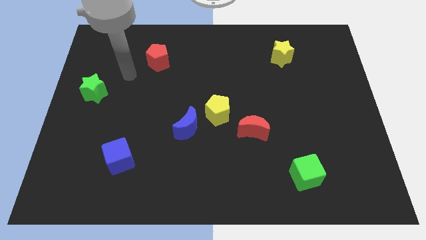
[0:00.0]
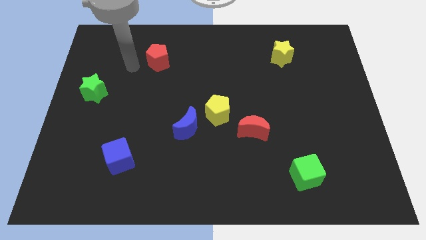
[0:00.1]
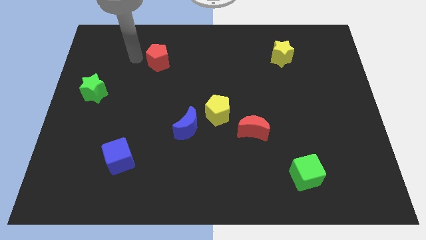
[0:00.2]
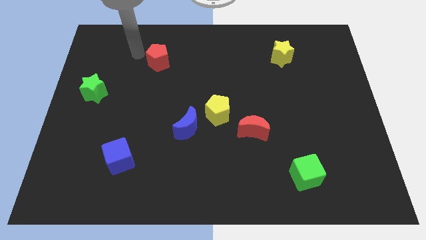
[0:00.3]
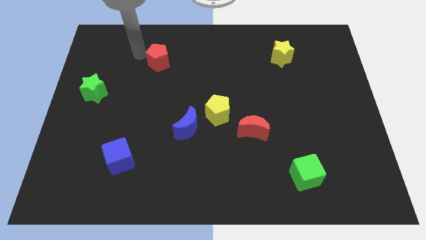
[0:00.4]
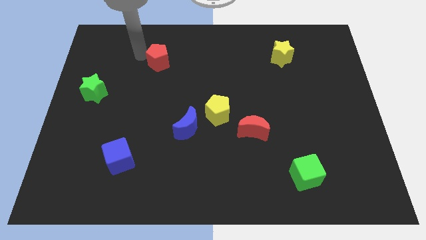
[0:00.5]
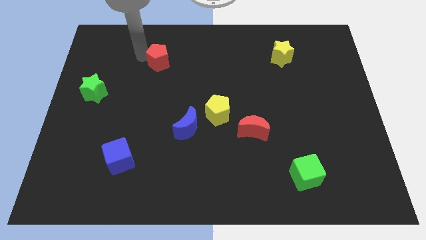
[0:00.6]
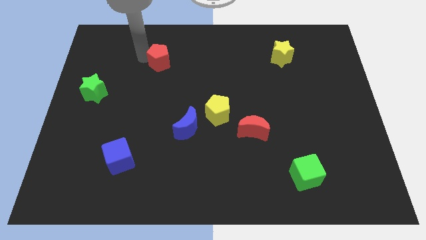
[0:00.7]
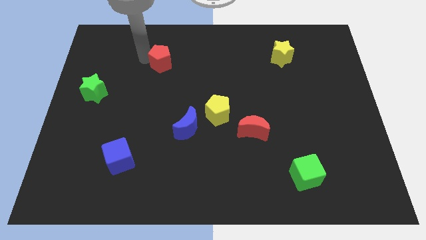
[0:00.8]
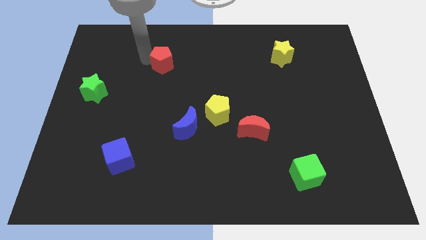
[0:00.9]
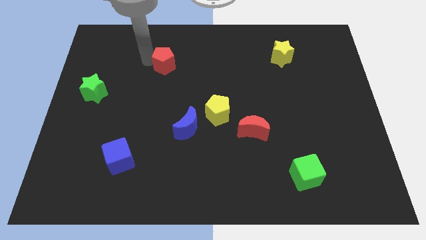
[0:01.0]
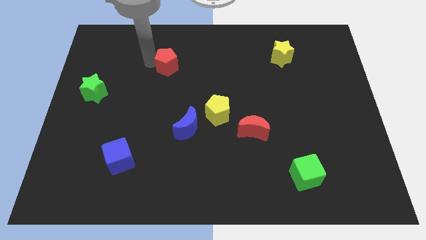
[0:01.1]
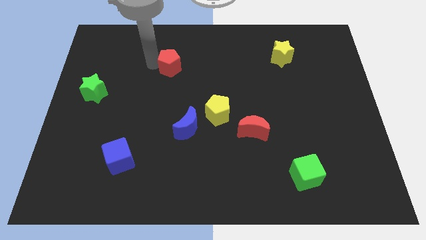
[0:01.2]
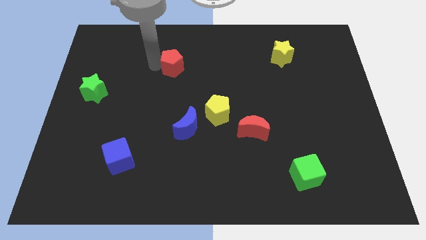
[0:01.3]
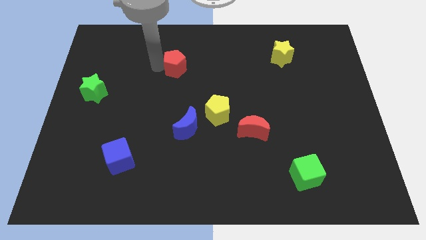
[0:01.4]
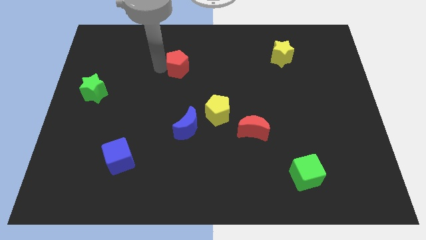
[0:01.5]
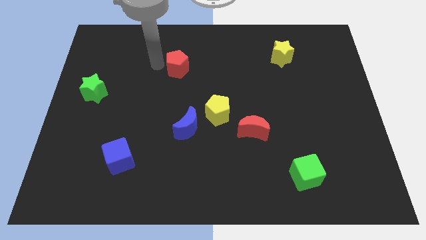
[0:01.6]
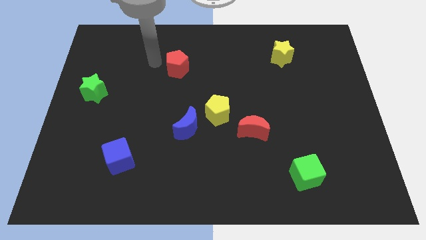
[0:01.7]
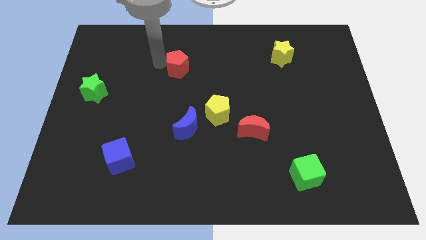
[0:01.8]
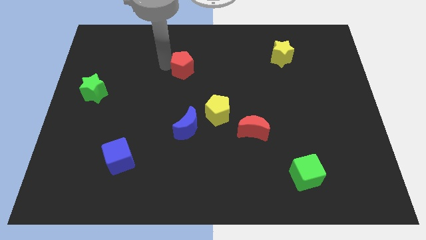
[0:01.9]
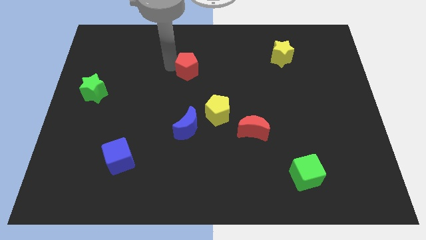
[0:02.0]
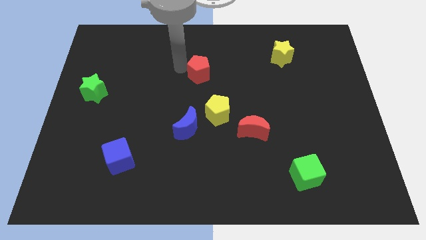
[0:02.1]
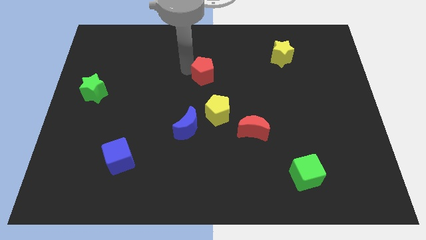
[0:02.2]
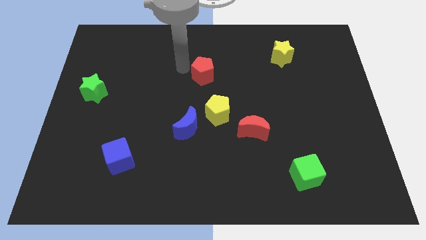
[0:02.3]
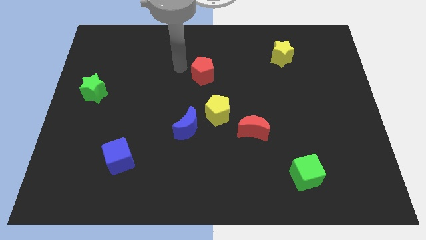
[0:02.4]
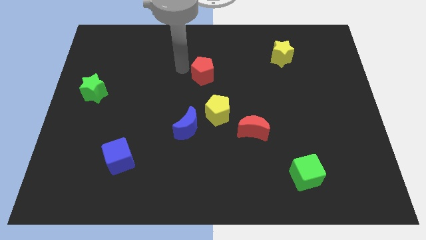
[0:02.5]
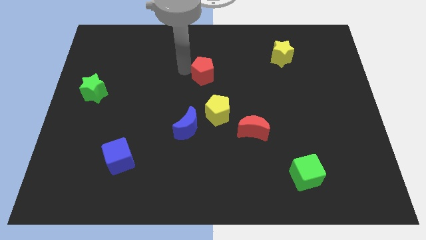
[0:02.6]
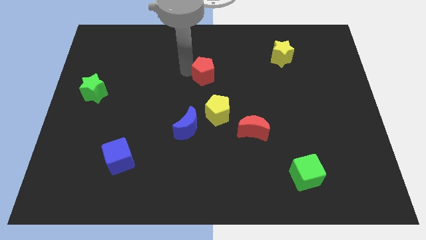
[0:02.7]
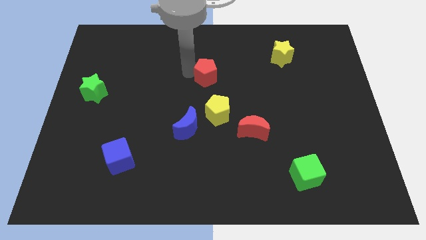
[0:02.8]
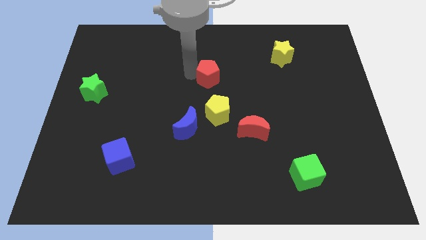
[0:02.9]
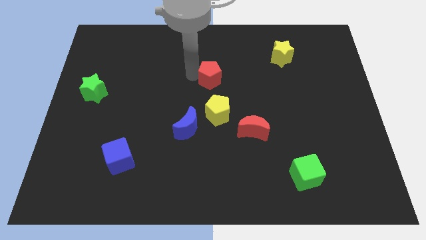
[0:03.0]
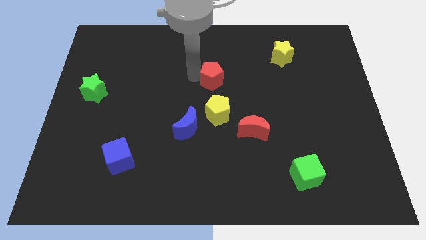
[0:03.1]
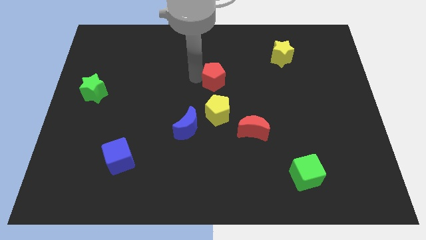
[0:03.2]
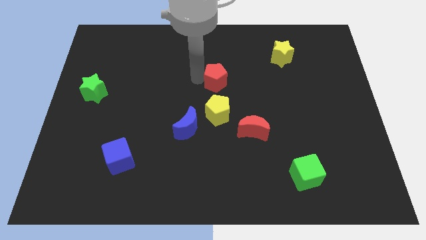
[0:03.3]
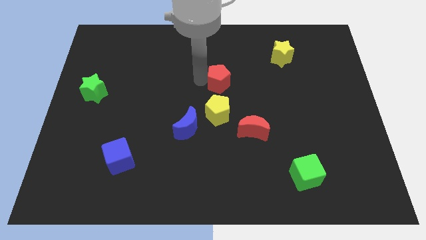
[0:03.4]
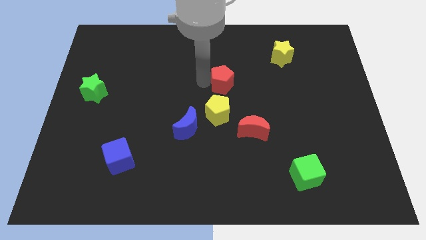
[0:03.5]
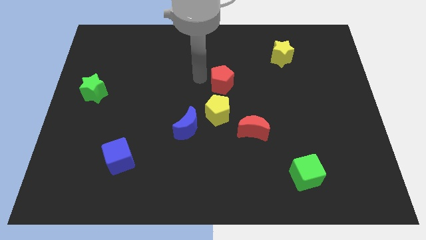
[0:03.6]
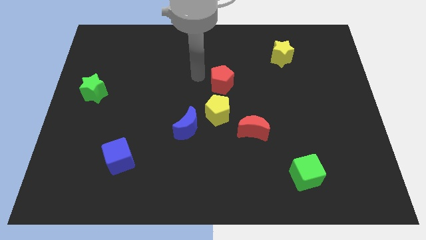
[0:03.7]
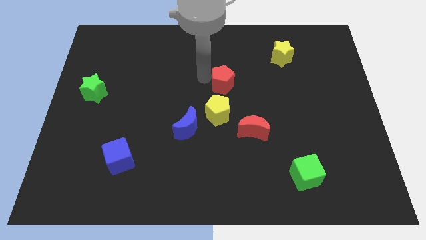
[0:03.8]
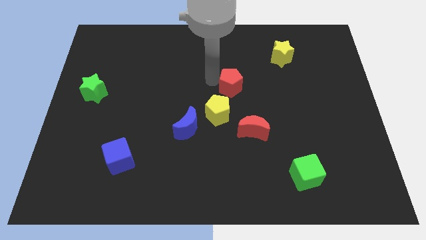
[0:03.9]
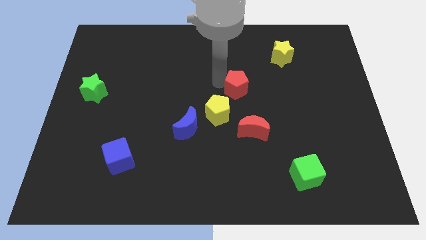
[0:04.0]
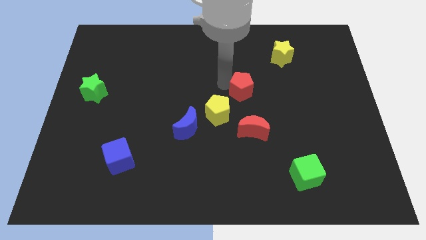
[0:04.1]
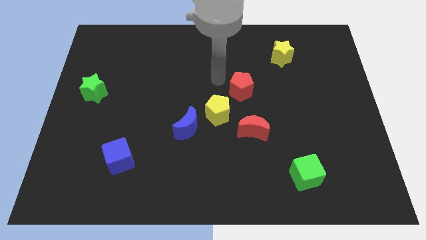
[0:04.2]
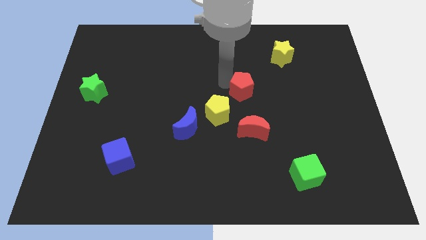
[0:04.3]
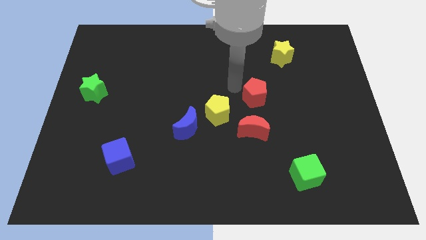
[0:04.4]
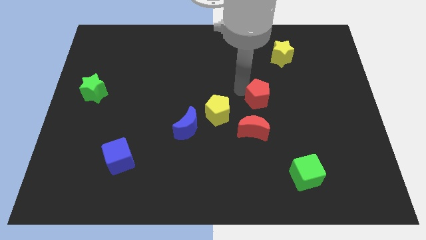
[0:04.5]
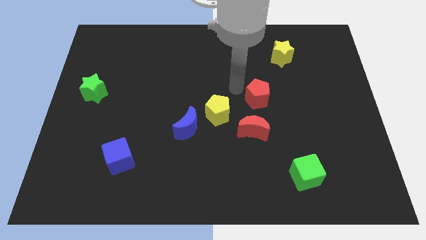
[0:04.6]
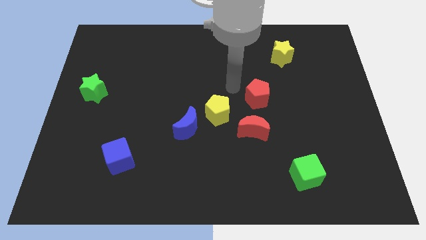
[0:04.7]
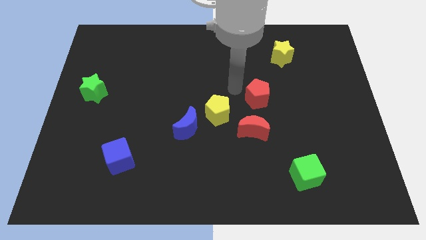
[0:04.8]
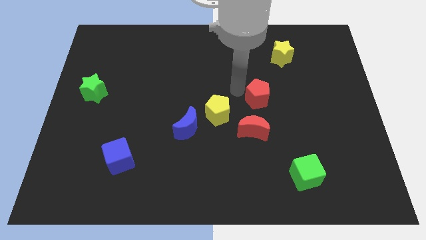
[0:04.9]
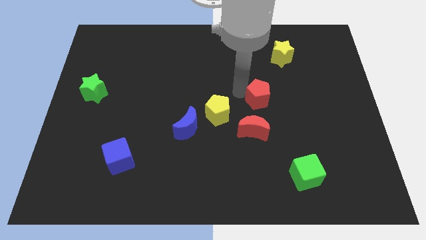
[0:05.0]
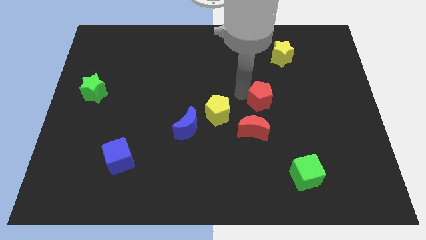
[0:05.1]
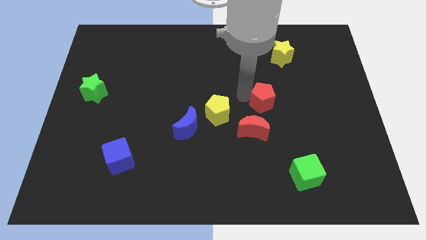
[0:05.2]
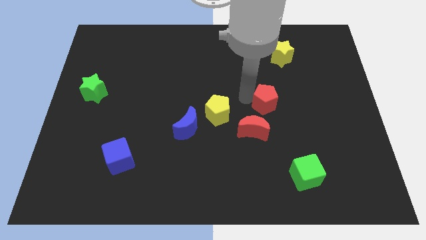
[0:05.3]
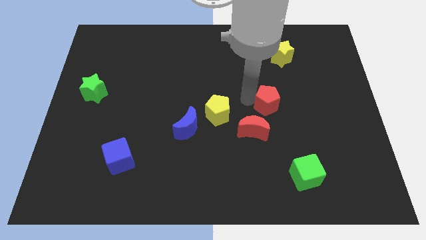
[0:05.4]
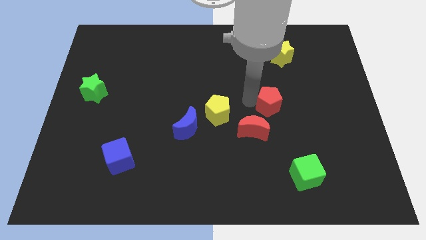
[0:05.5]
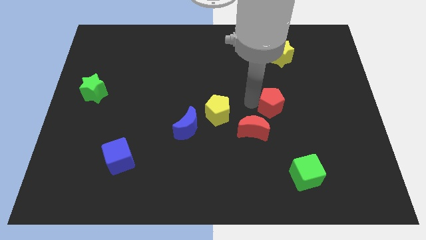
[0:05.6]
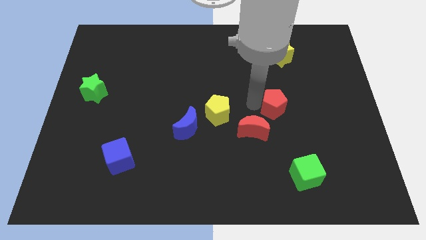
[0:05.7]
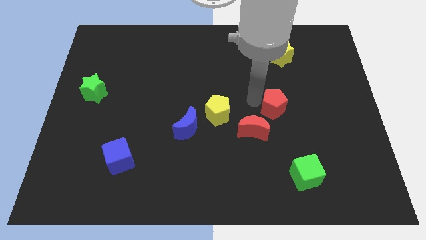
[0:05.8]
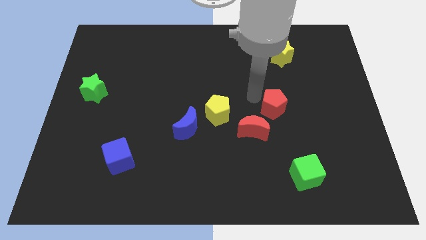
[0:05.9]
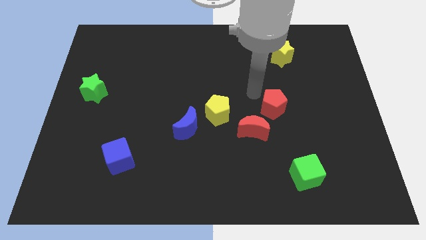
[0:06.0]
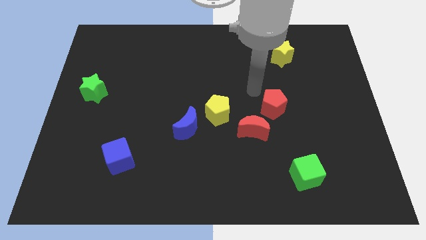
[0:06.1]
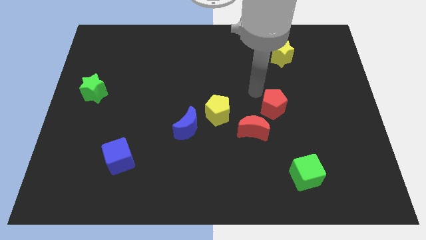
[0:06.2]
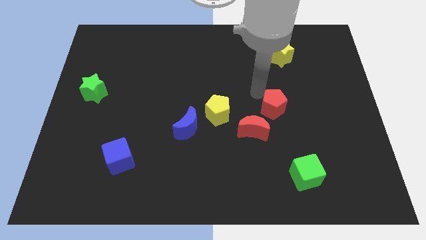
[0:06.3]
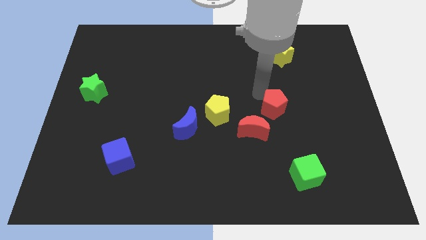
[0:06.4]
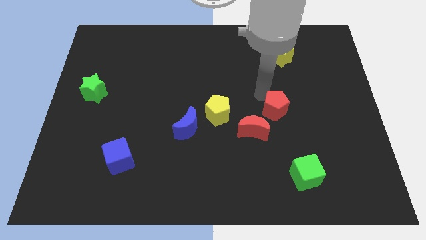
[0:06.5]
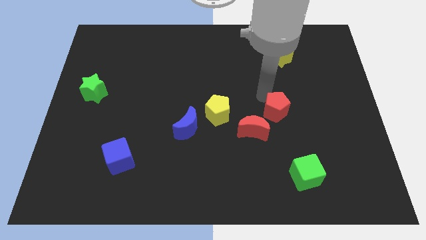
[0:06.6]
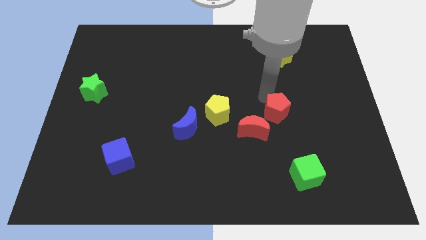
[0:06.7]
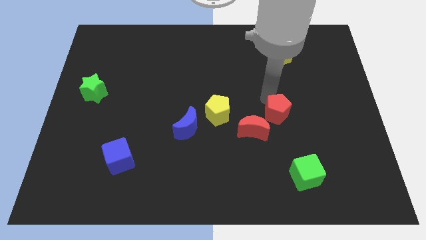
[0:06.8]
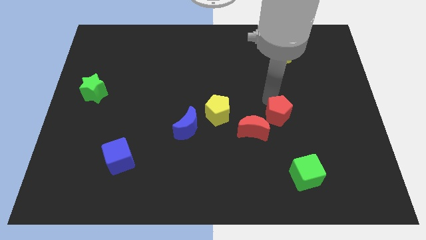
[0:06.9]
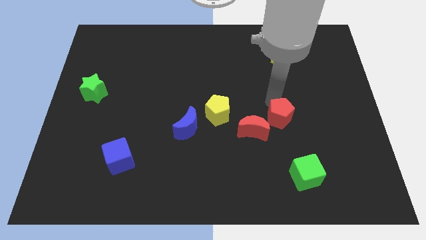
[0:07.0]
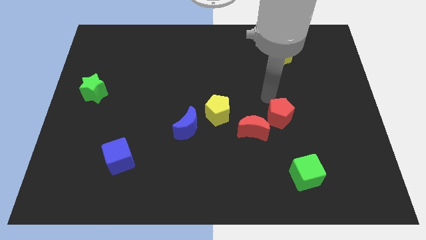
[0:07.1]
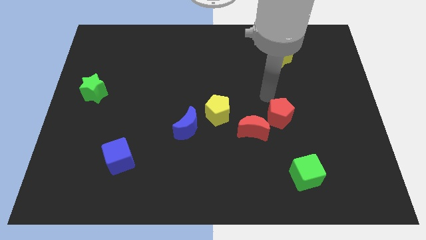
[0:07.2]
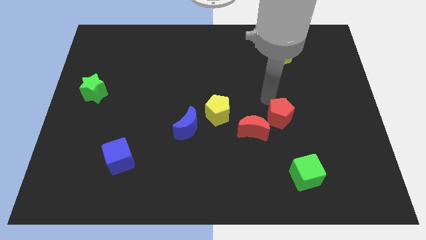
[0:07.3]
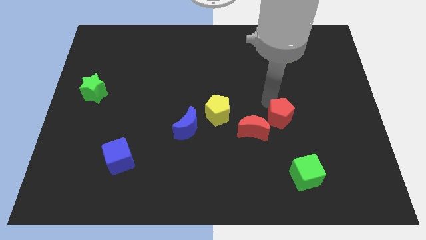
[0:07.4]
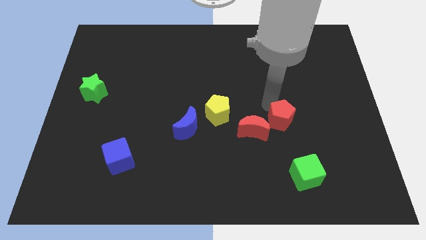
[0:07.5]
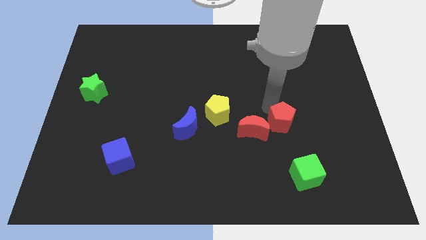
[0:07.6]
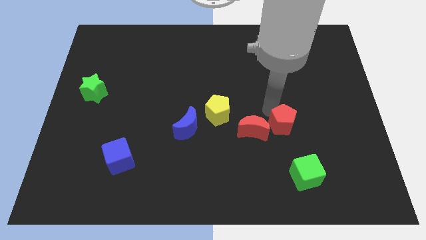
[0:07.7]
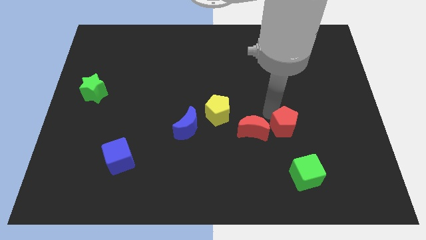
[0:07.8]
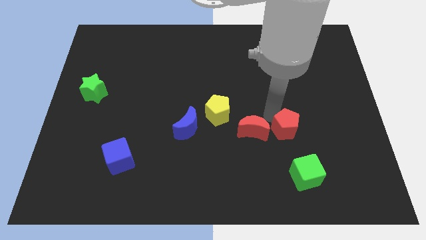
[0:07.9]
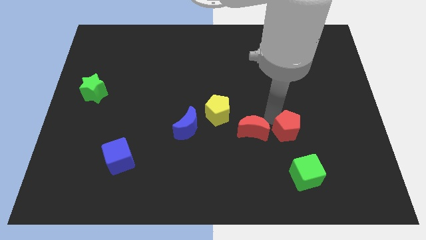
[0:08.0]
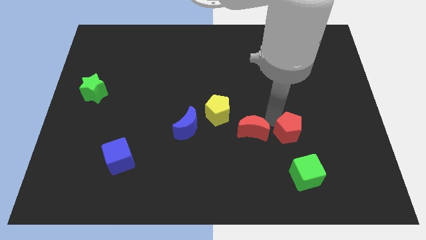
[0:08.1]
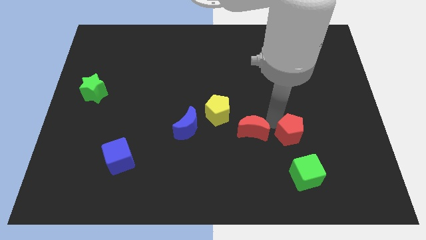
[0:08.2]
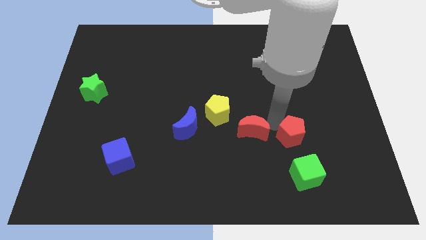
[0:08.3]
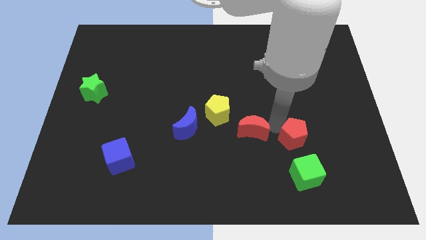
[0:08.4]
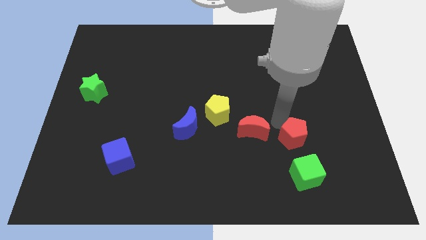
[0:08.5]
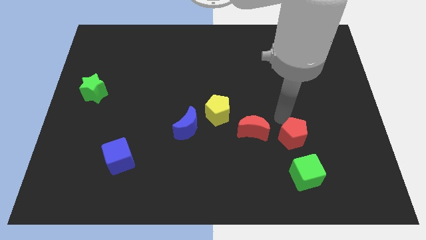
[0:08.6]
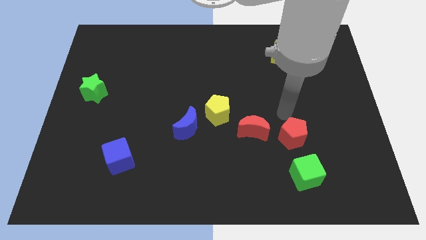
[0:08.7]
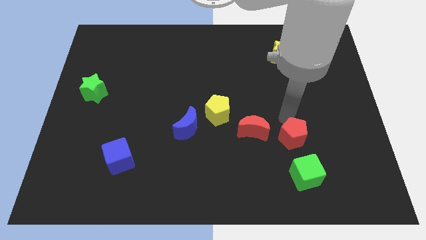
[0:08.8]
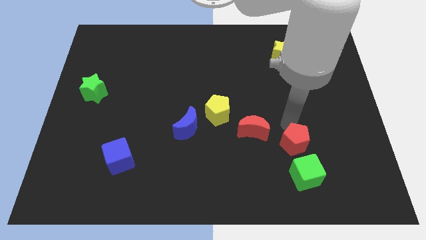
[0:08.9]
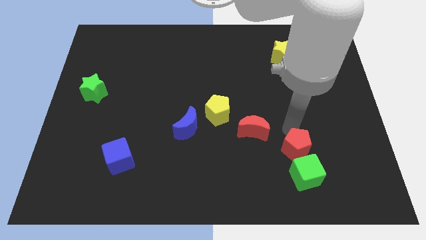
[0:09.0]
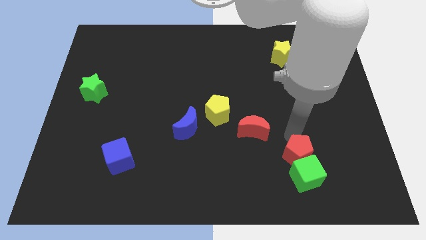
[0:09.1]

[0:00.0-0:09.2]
push the red pentagon close to the green cube
